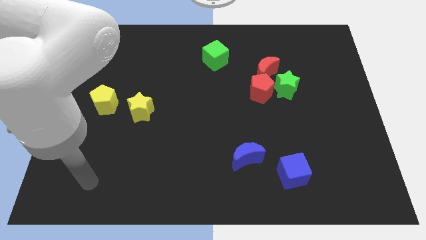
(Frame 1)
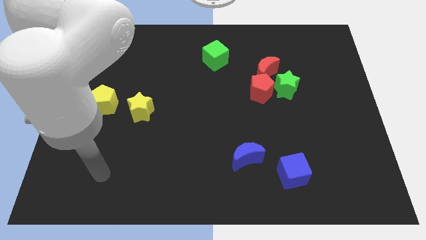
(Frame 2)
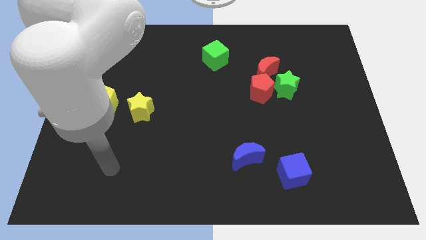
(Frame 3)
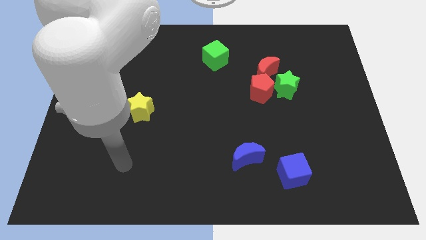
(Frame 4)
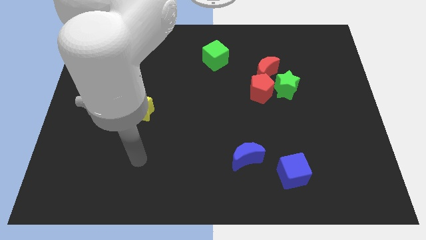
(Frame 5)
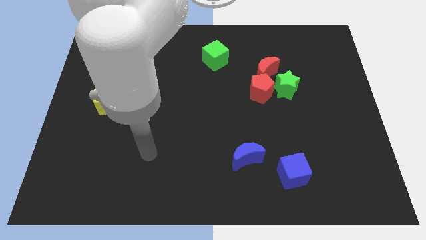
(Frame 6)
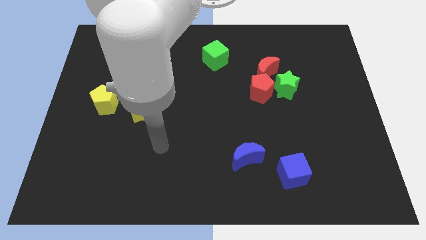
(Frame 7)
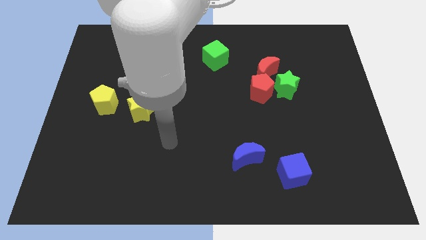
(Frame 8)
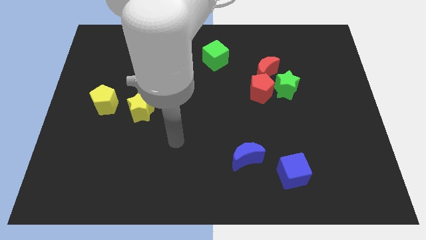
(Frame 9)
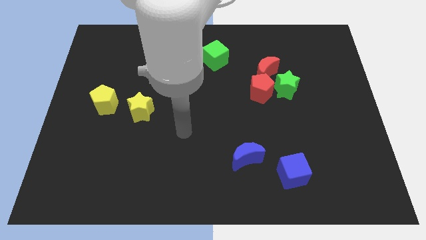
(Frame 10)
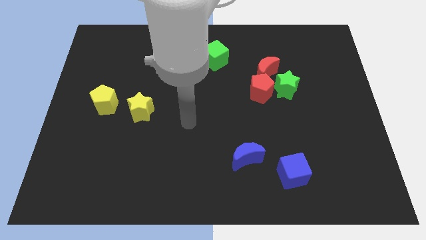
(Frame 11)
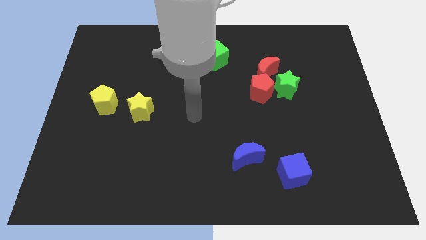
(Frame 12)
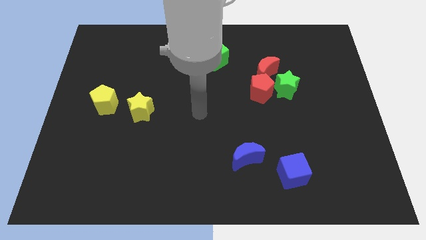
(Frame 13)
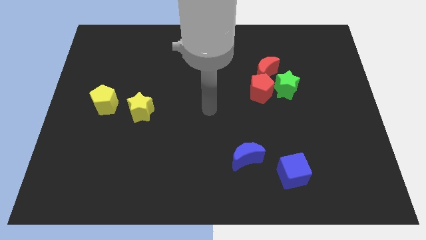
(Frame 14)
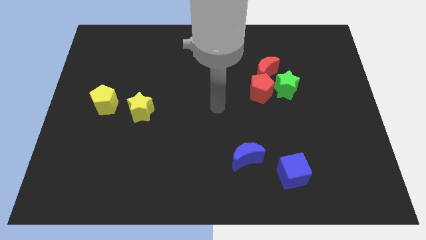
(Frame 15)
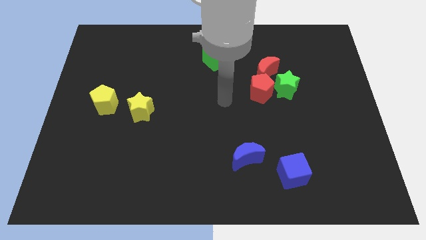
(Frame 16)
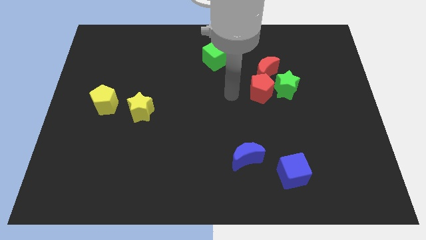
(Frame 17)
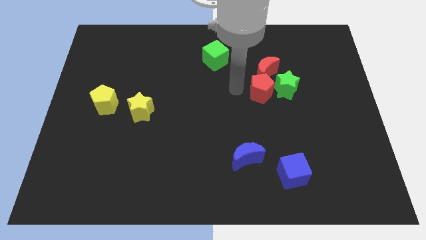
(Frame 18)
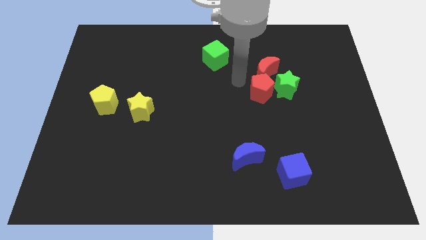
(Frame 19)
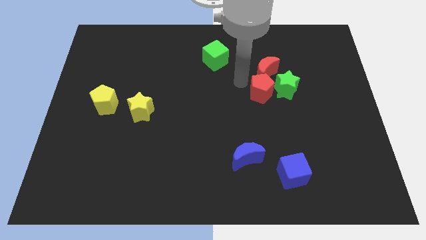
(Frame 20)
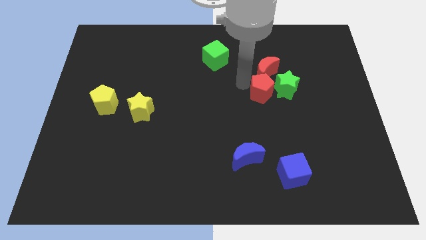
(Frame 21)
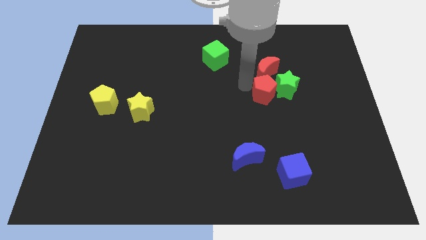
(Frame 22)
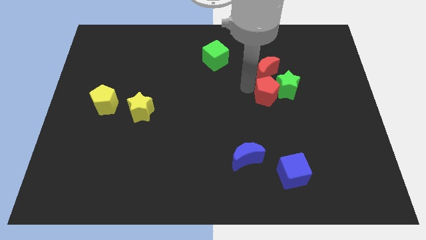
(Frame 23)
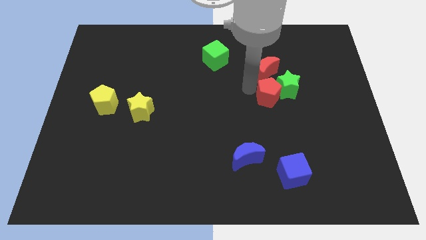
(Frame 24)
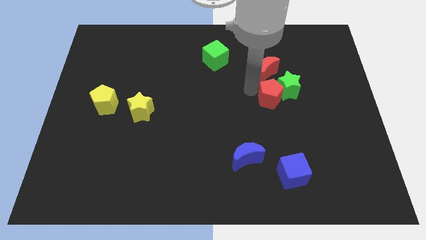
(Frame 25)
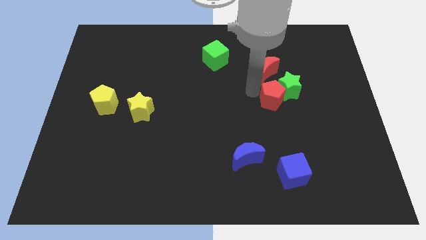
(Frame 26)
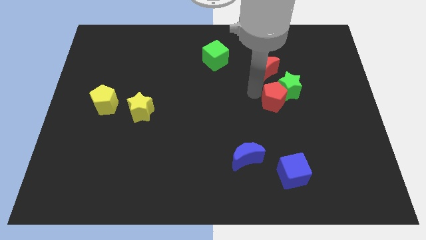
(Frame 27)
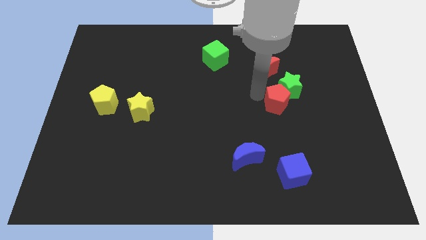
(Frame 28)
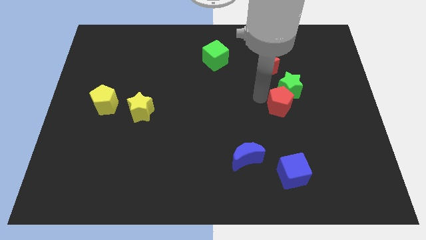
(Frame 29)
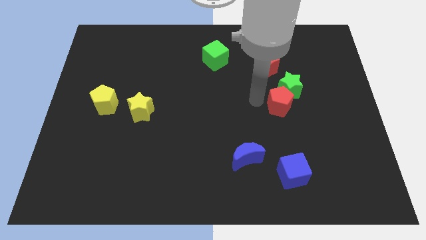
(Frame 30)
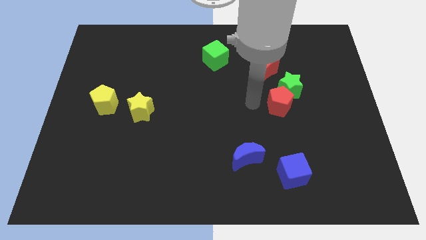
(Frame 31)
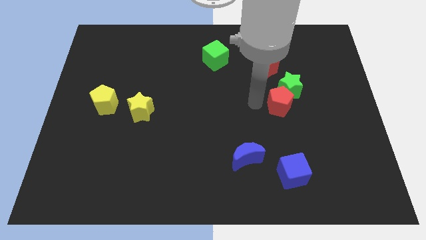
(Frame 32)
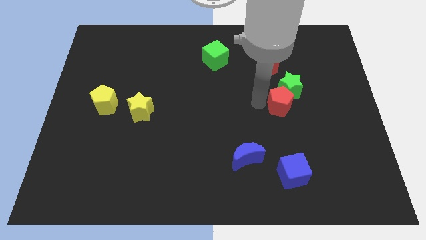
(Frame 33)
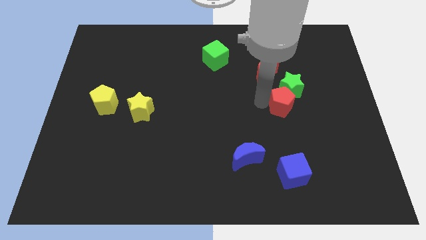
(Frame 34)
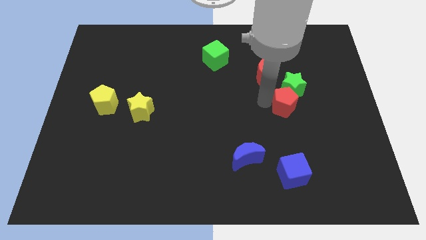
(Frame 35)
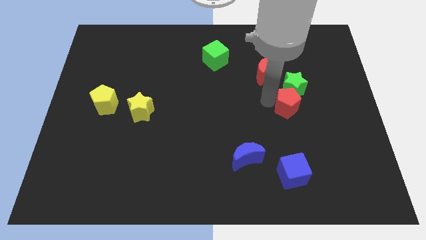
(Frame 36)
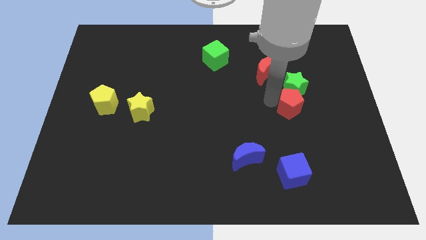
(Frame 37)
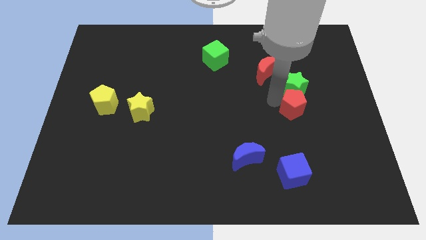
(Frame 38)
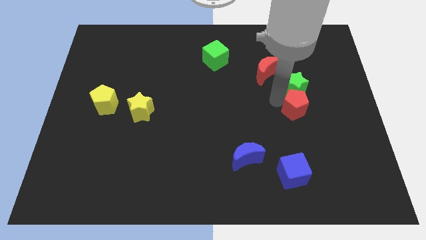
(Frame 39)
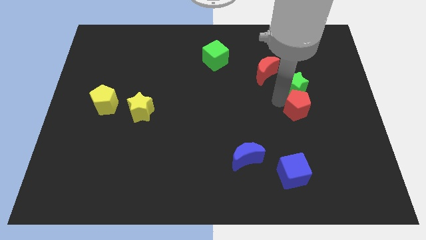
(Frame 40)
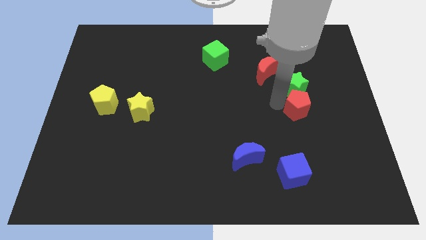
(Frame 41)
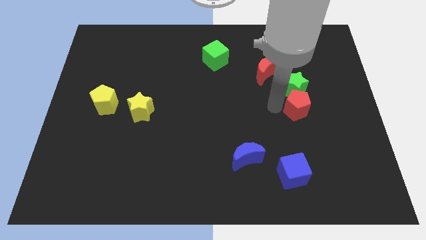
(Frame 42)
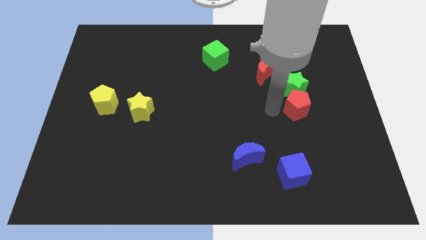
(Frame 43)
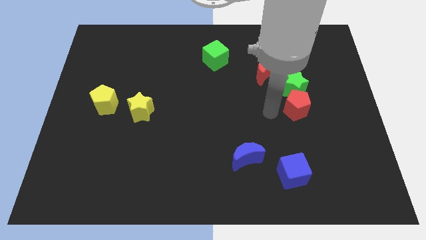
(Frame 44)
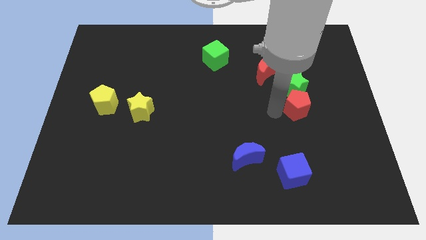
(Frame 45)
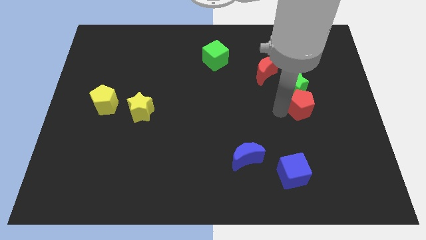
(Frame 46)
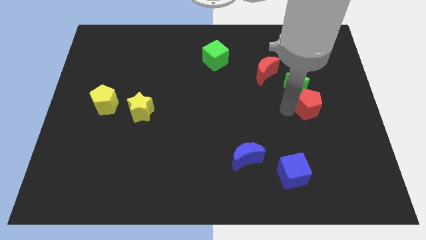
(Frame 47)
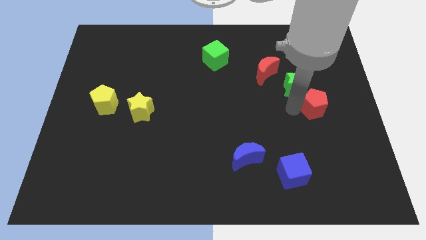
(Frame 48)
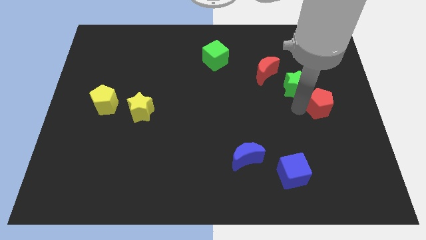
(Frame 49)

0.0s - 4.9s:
push the red pentagon to the center right

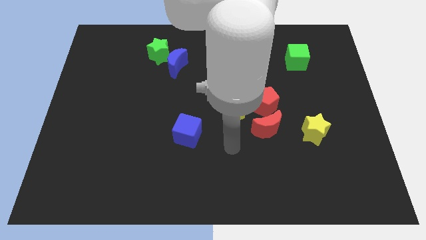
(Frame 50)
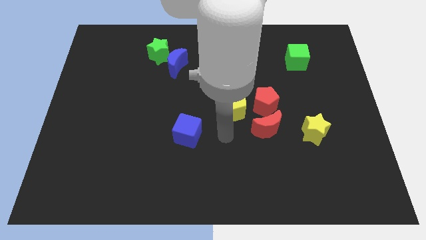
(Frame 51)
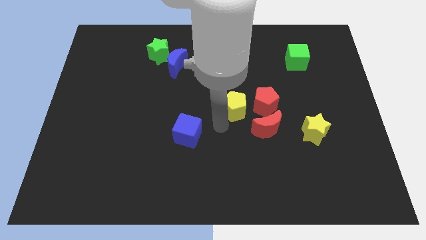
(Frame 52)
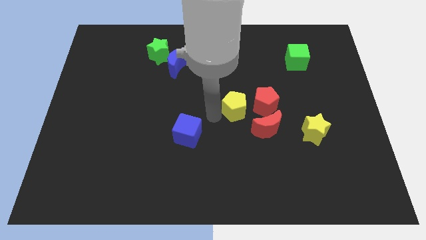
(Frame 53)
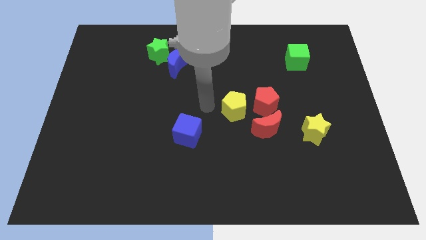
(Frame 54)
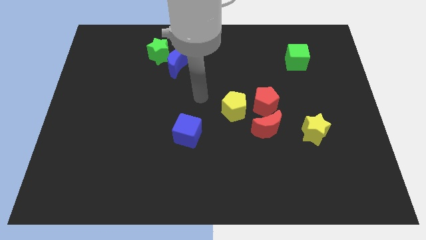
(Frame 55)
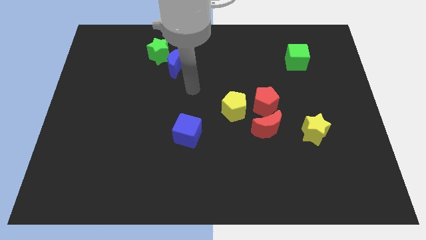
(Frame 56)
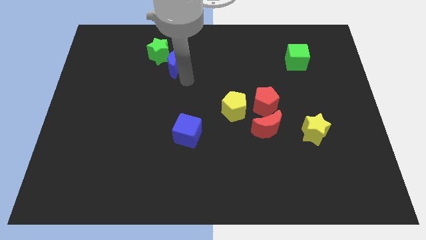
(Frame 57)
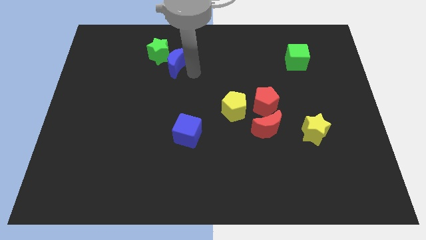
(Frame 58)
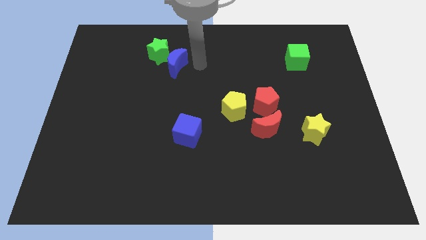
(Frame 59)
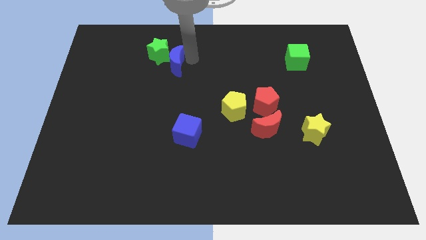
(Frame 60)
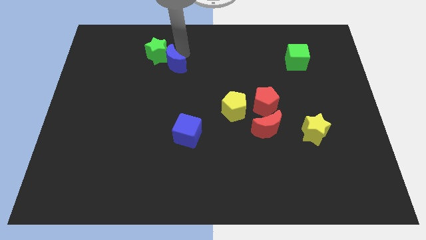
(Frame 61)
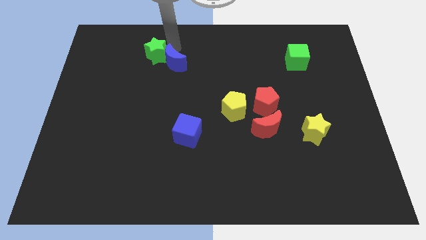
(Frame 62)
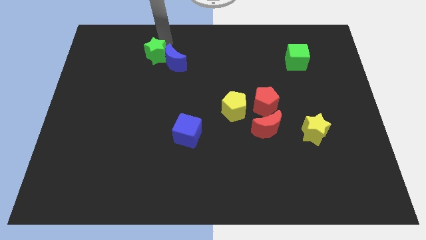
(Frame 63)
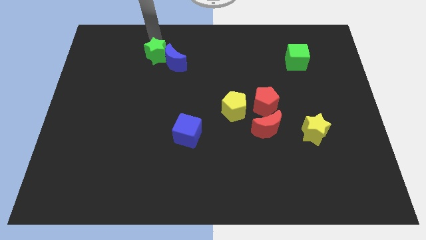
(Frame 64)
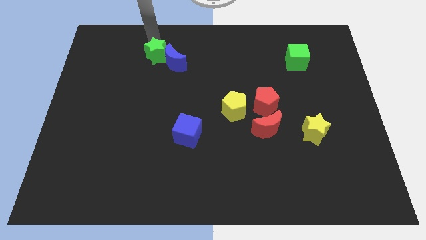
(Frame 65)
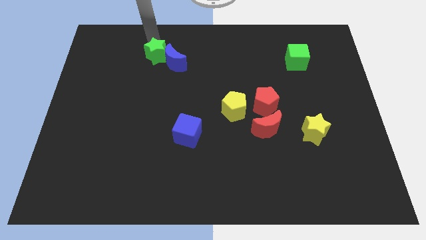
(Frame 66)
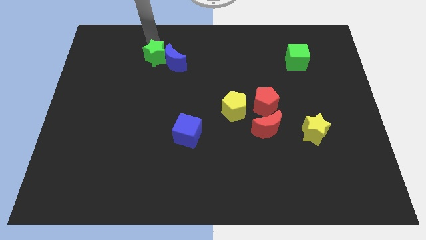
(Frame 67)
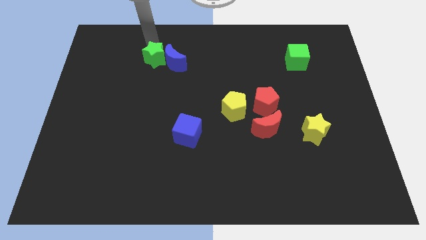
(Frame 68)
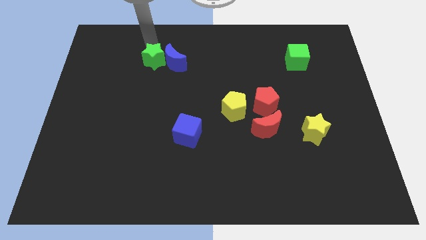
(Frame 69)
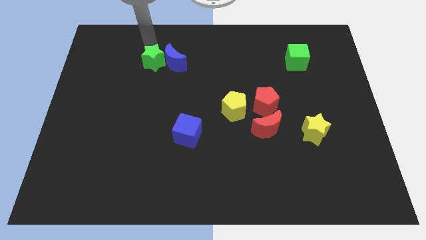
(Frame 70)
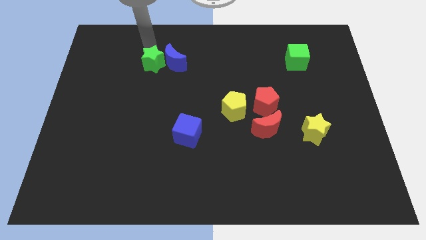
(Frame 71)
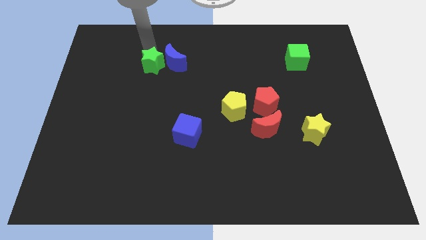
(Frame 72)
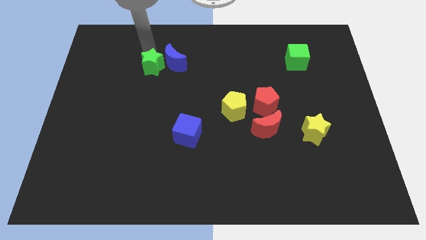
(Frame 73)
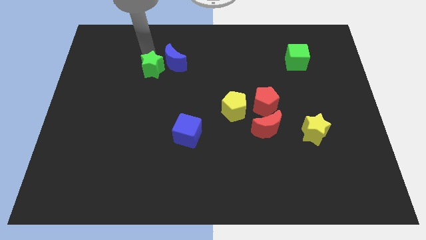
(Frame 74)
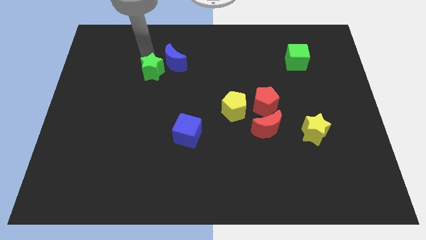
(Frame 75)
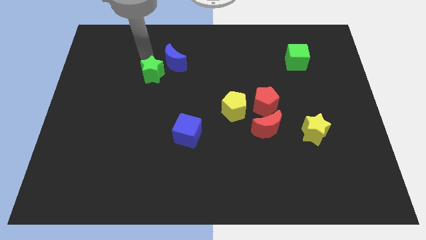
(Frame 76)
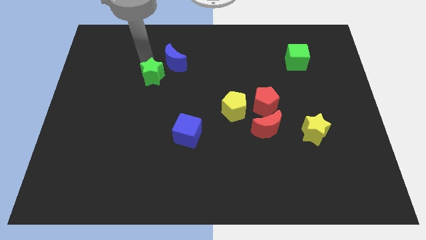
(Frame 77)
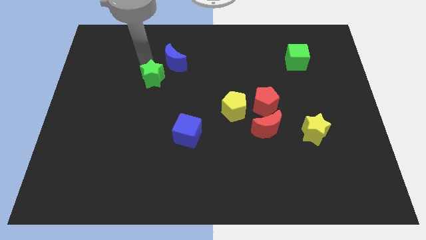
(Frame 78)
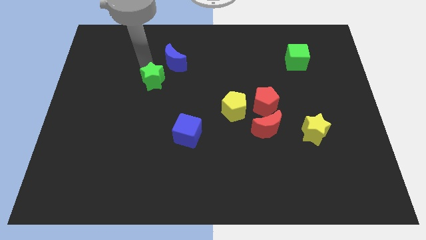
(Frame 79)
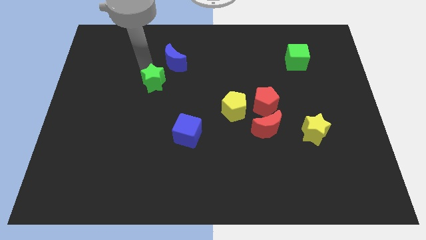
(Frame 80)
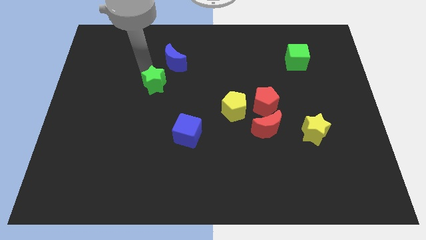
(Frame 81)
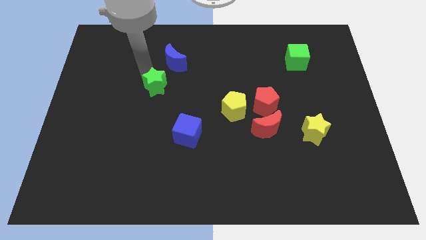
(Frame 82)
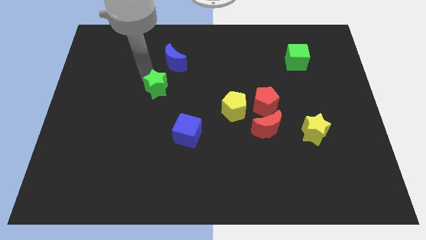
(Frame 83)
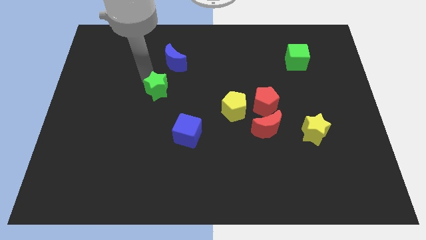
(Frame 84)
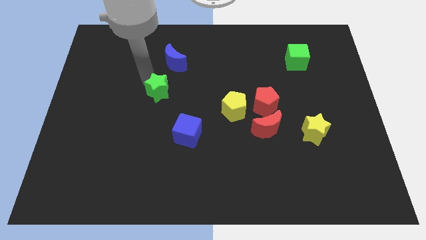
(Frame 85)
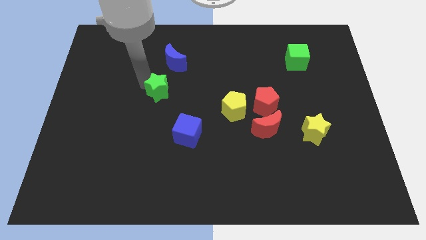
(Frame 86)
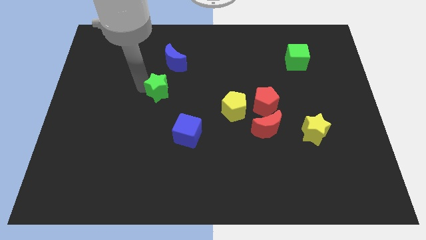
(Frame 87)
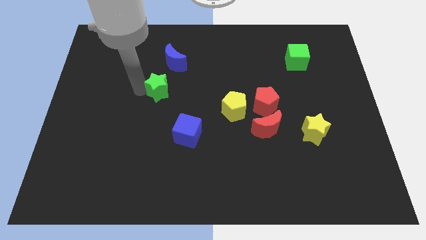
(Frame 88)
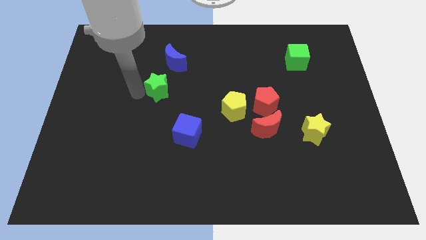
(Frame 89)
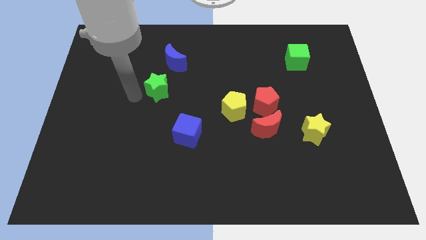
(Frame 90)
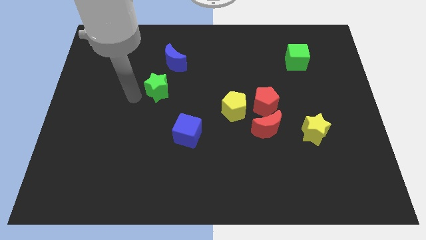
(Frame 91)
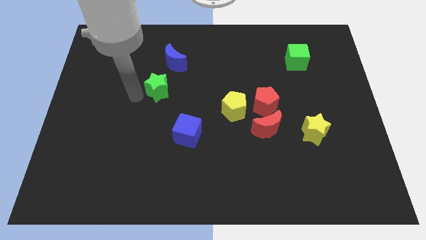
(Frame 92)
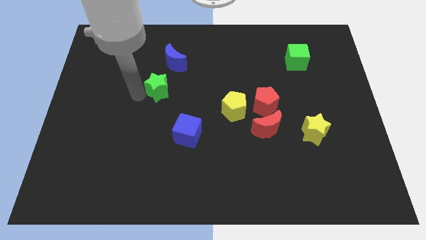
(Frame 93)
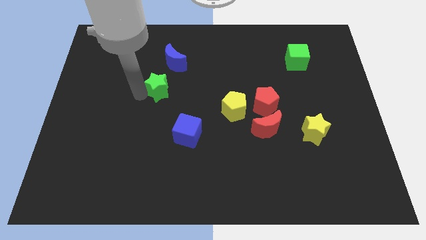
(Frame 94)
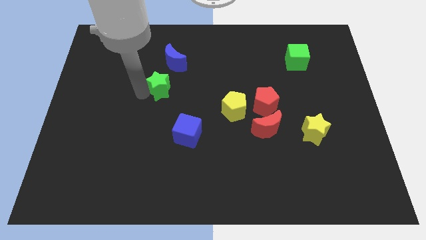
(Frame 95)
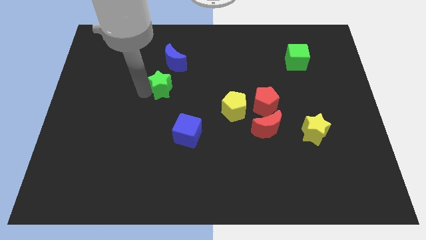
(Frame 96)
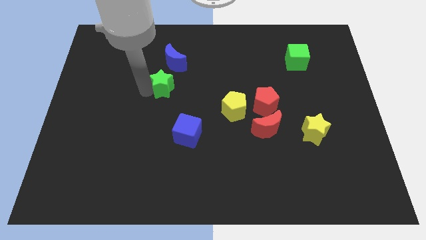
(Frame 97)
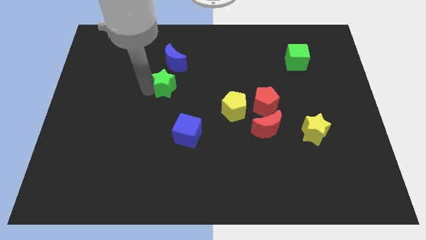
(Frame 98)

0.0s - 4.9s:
slide the green star to the center
